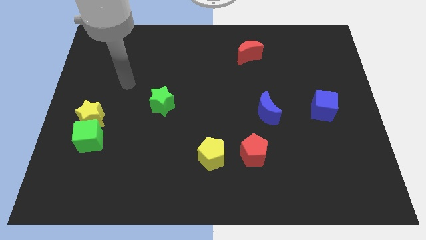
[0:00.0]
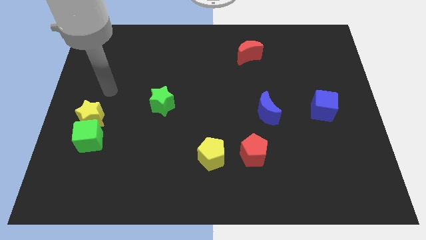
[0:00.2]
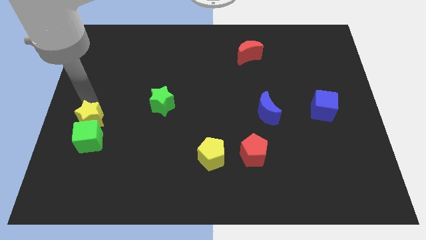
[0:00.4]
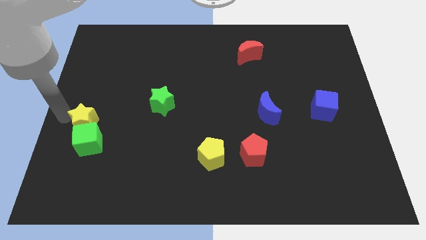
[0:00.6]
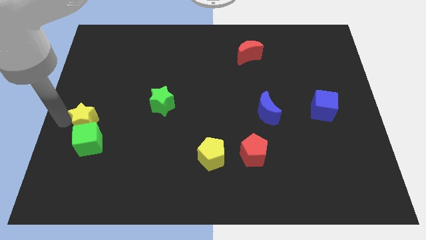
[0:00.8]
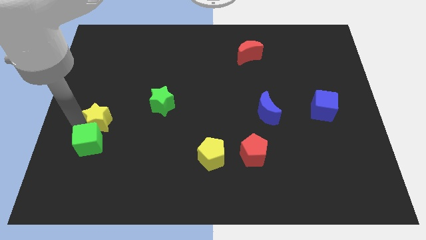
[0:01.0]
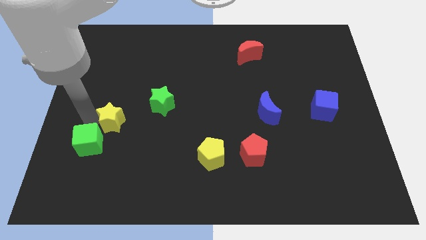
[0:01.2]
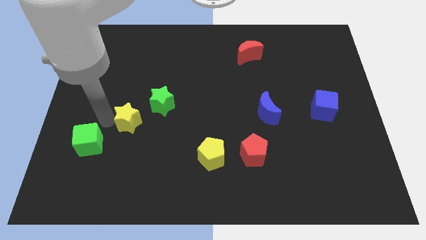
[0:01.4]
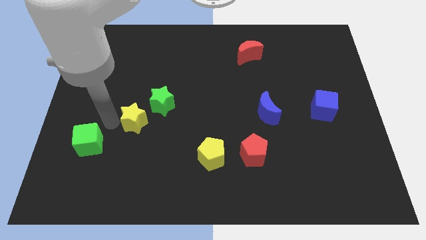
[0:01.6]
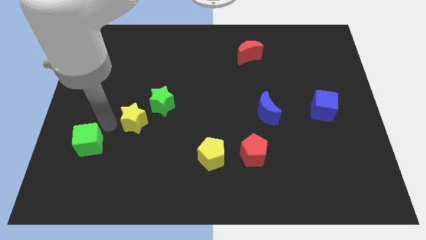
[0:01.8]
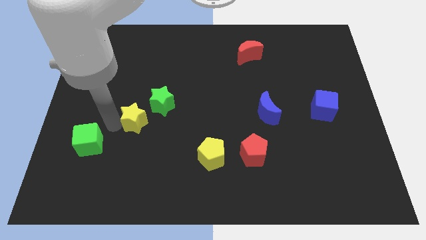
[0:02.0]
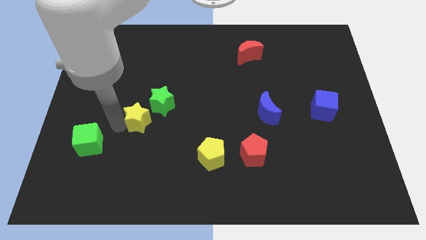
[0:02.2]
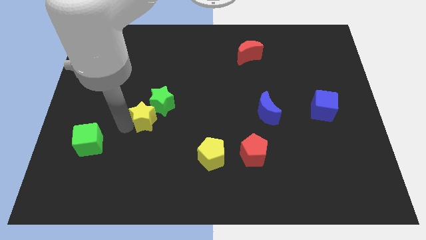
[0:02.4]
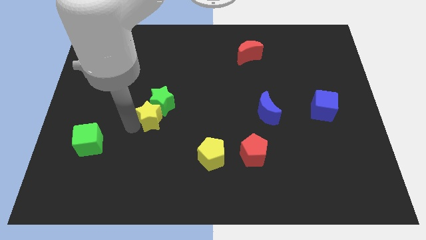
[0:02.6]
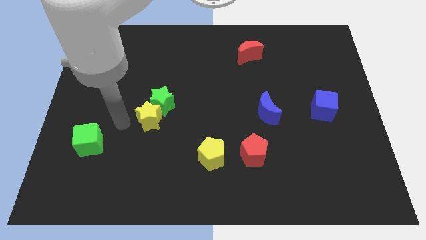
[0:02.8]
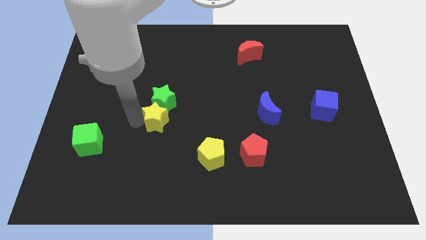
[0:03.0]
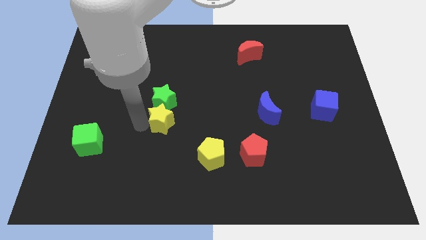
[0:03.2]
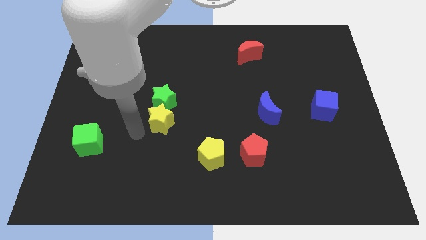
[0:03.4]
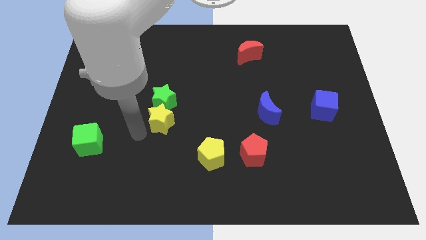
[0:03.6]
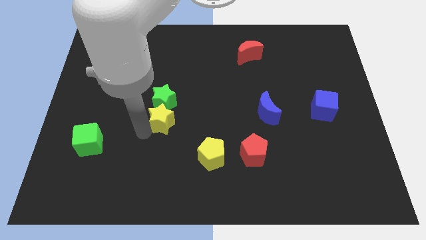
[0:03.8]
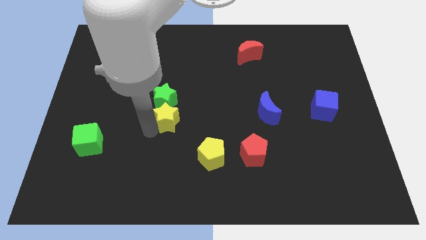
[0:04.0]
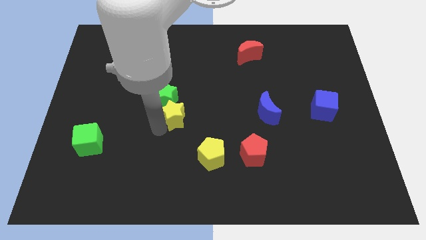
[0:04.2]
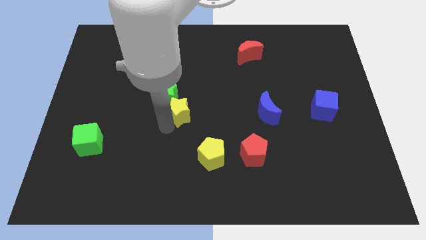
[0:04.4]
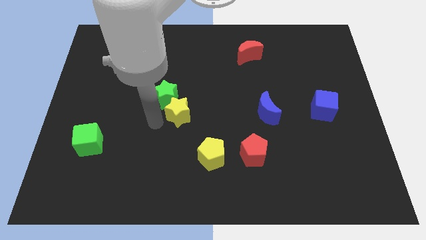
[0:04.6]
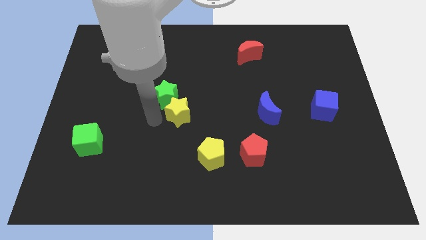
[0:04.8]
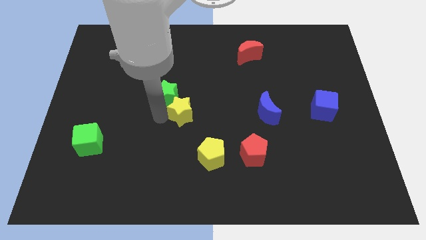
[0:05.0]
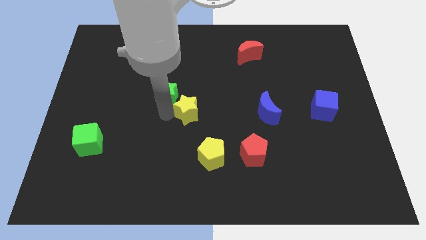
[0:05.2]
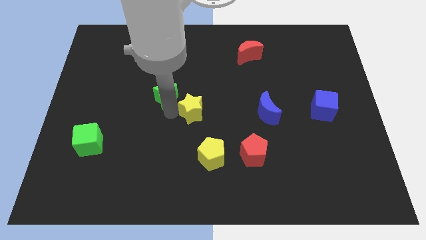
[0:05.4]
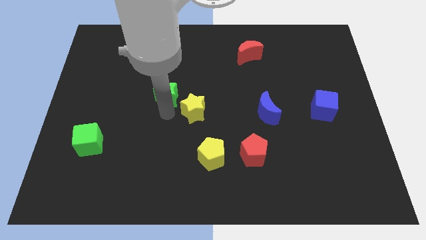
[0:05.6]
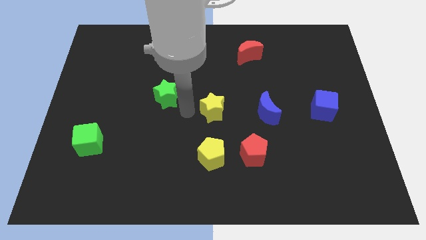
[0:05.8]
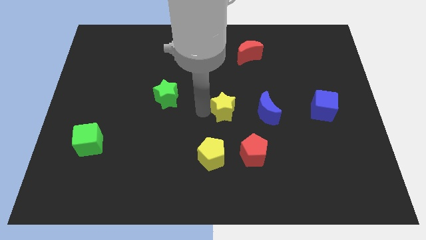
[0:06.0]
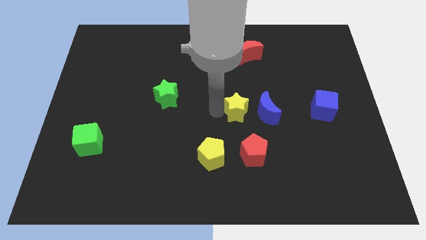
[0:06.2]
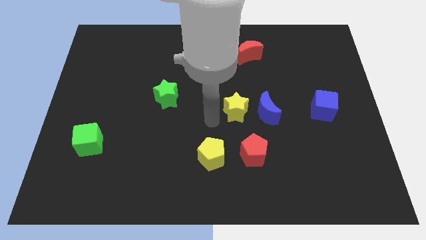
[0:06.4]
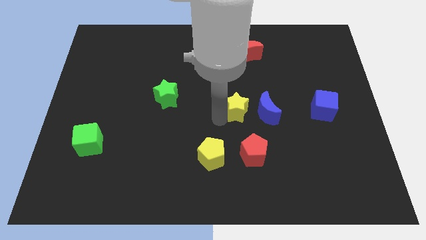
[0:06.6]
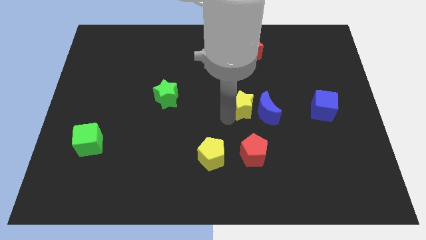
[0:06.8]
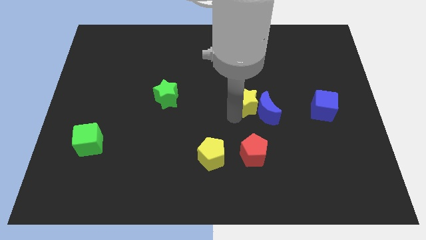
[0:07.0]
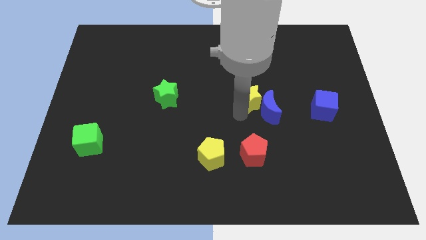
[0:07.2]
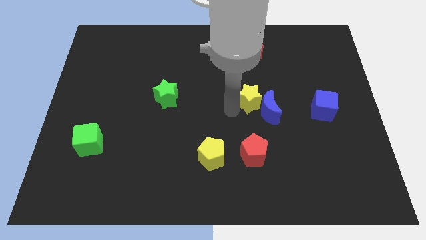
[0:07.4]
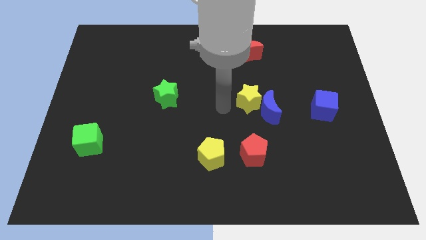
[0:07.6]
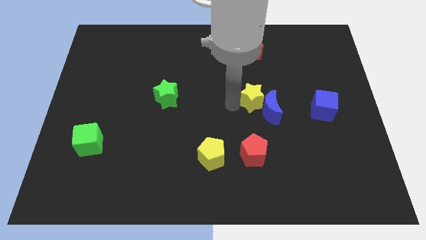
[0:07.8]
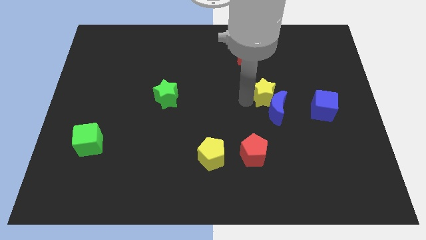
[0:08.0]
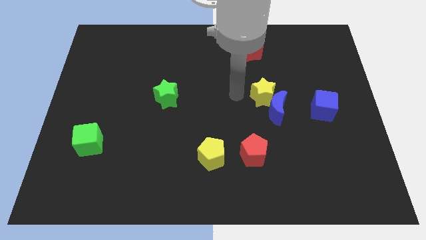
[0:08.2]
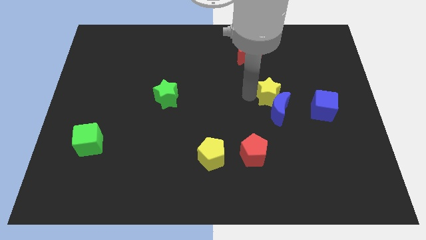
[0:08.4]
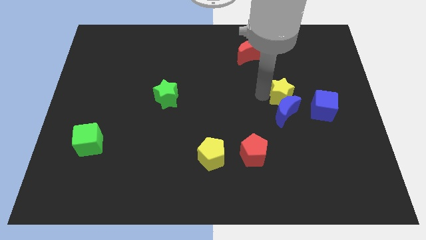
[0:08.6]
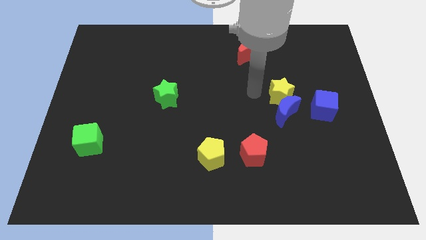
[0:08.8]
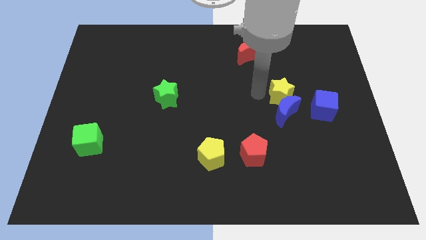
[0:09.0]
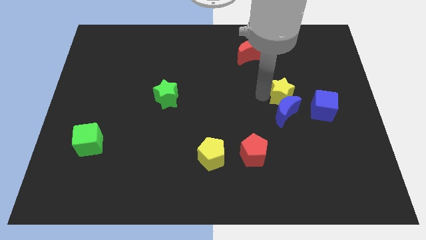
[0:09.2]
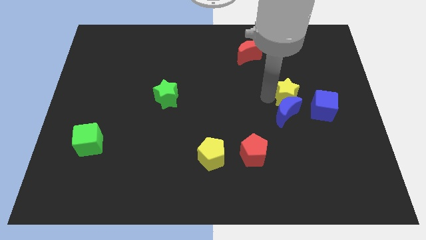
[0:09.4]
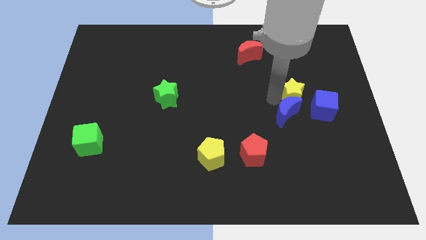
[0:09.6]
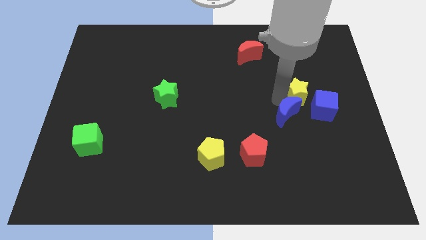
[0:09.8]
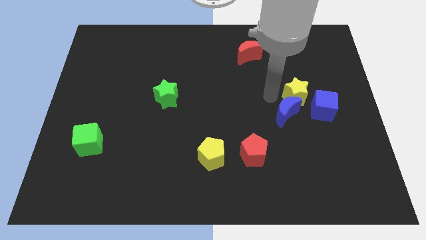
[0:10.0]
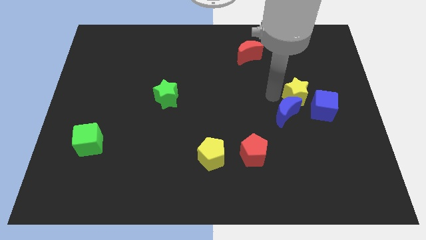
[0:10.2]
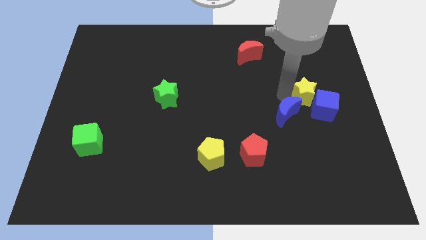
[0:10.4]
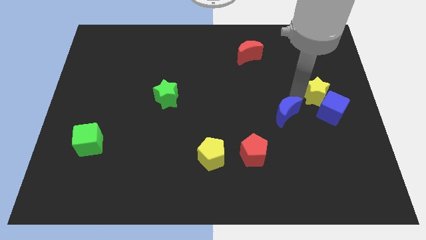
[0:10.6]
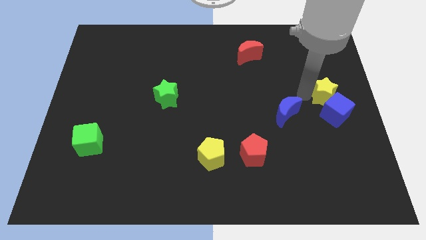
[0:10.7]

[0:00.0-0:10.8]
slide the yellow star to the center right
